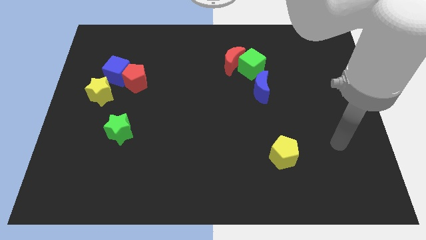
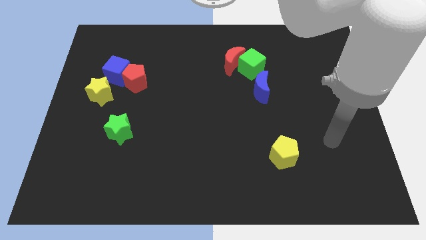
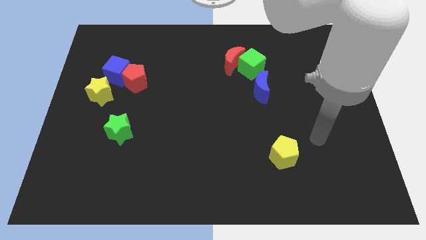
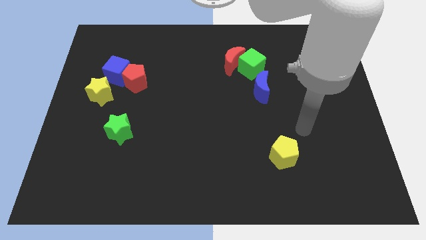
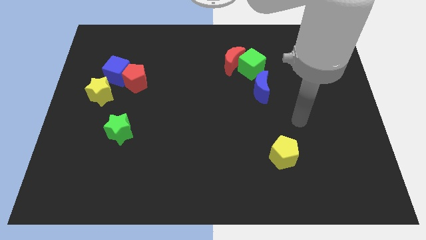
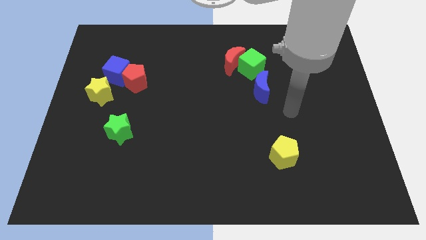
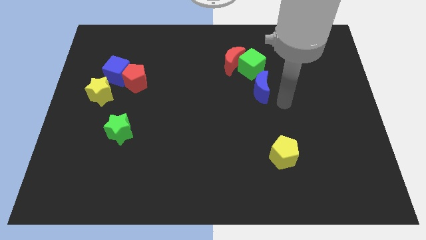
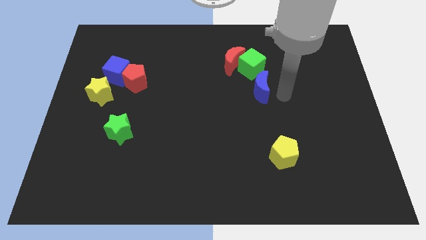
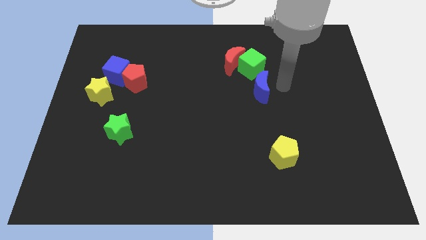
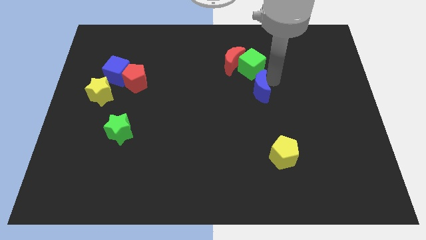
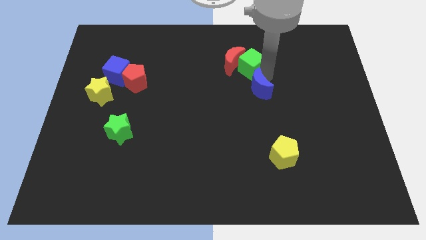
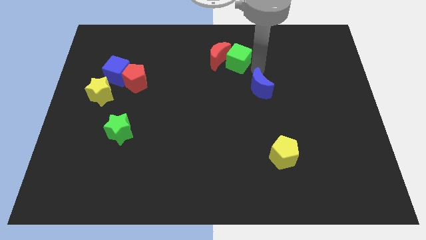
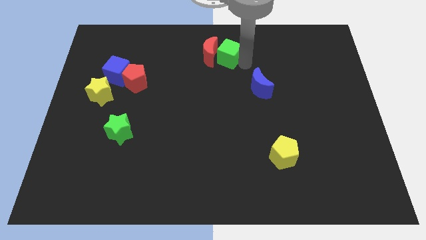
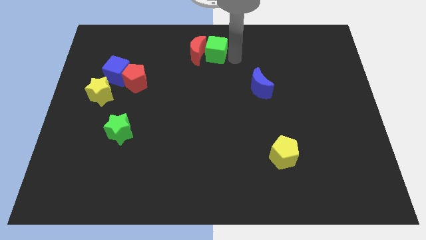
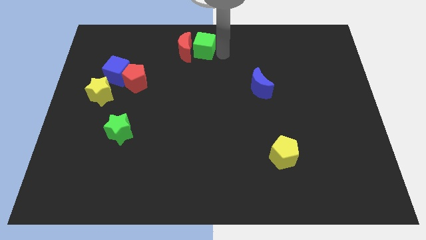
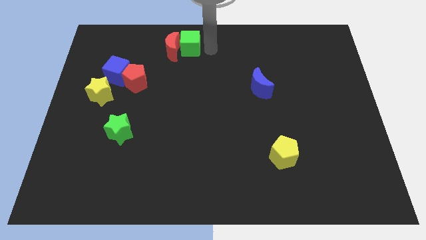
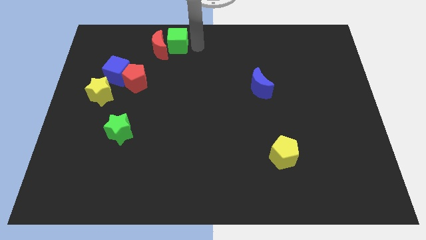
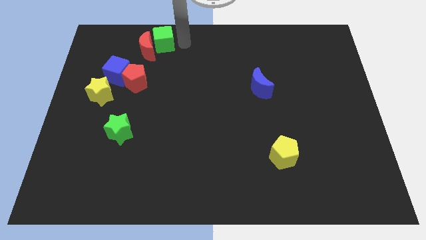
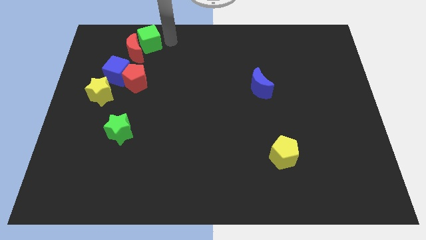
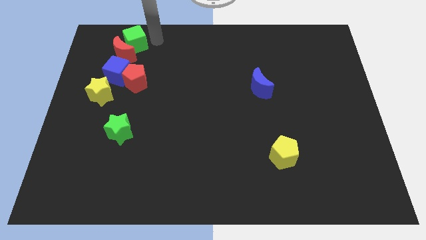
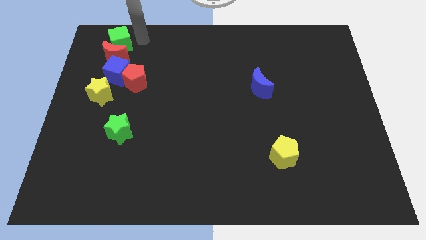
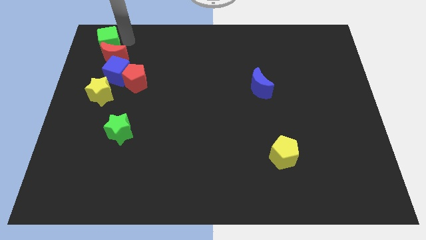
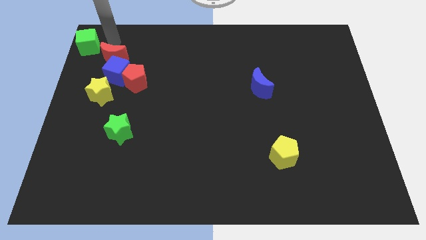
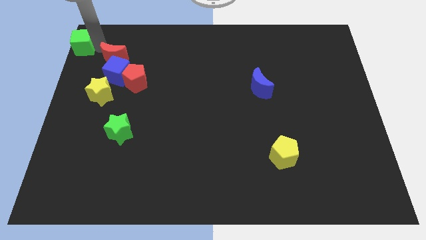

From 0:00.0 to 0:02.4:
move the red moon away from the green cube

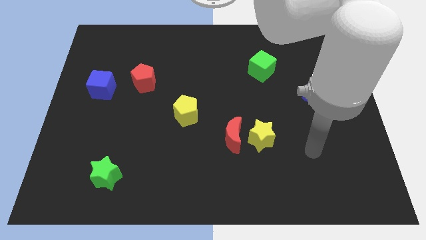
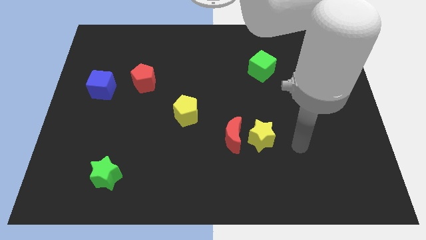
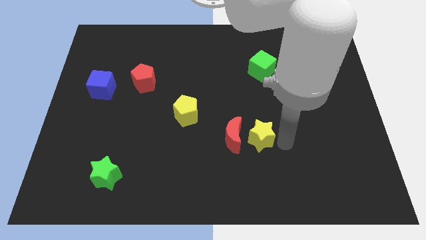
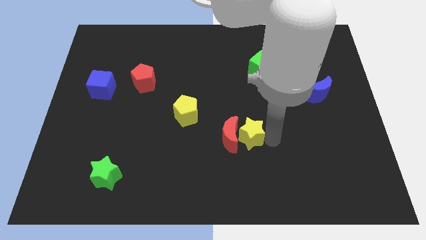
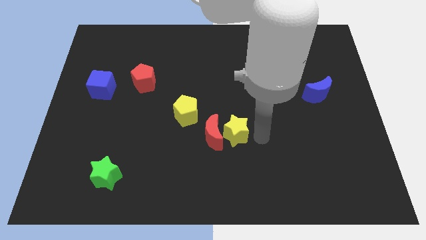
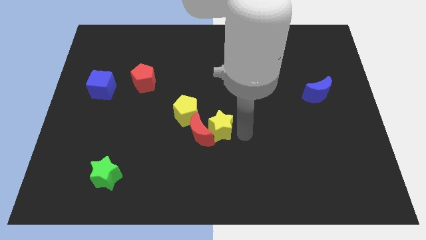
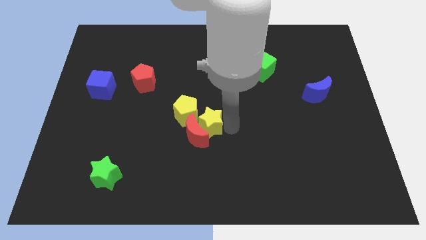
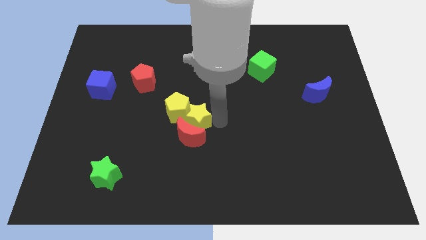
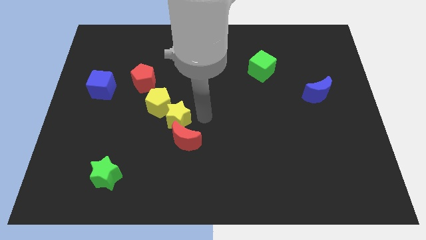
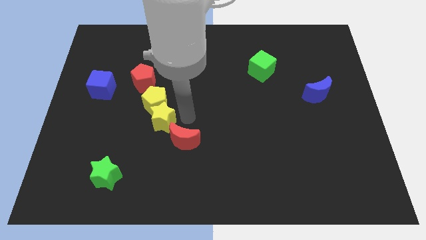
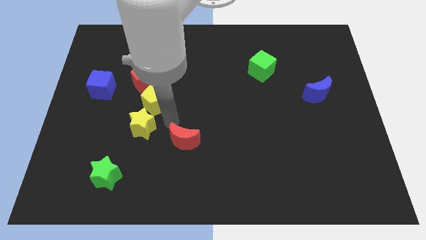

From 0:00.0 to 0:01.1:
pull the red moon apart from the yellow star

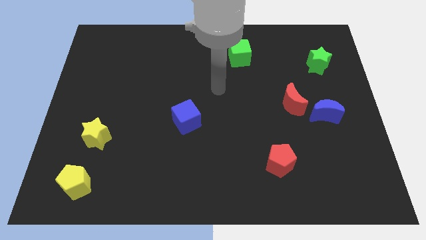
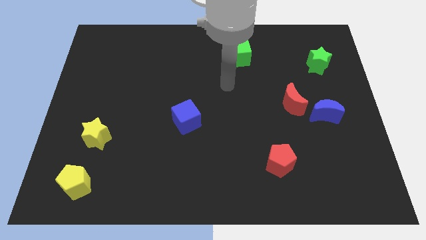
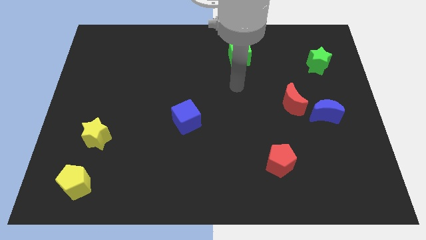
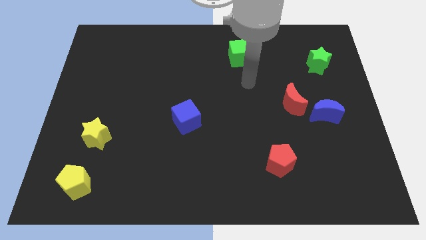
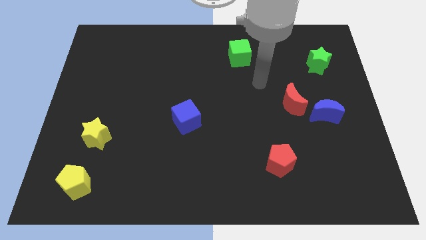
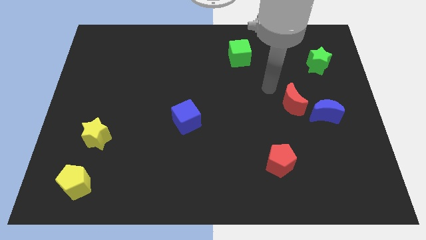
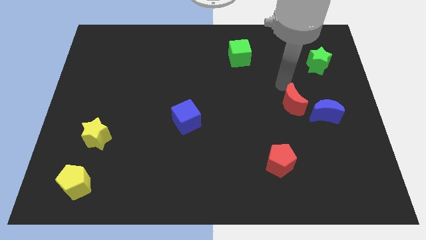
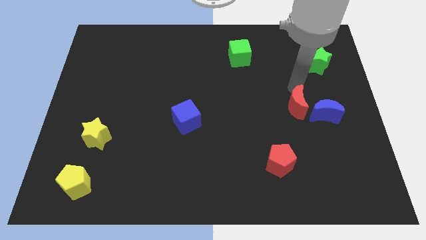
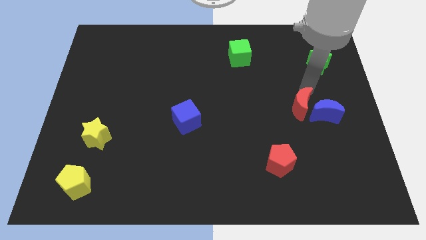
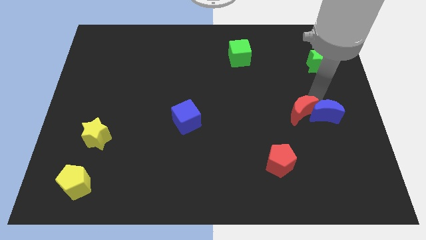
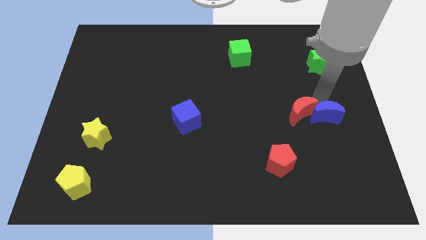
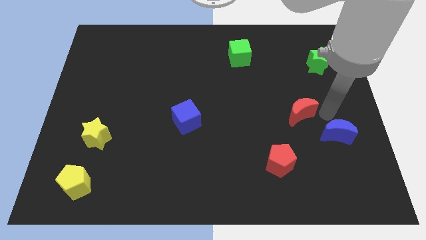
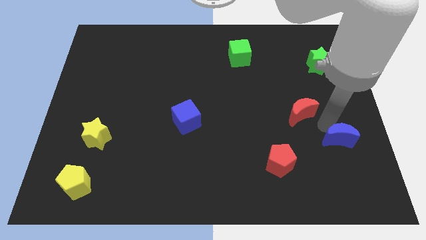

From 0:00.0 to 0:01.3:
move the red moon away from the blue moon

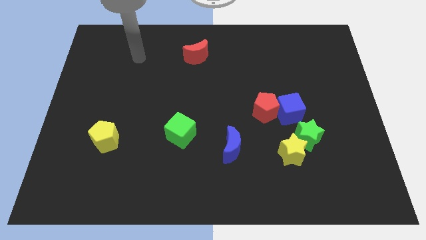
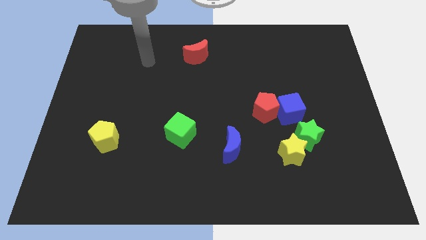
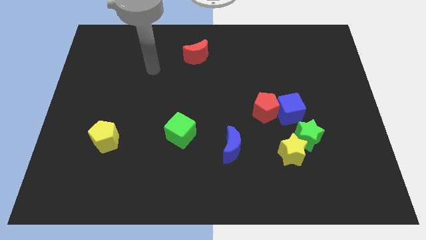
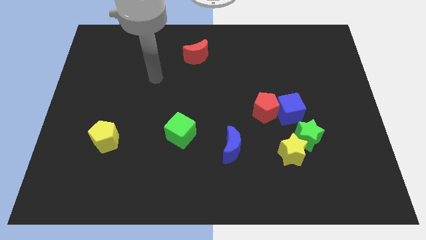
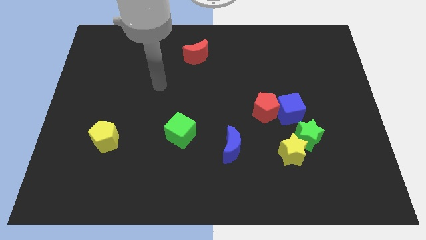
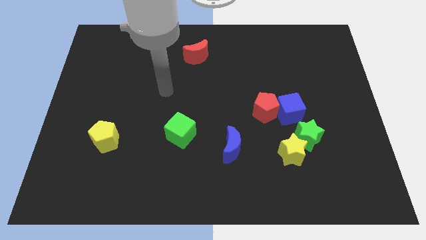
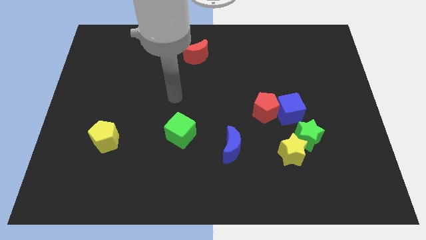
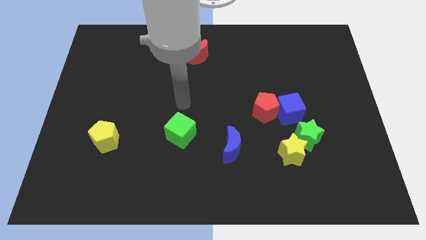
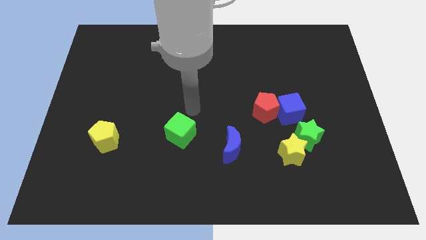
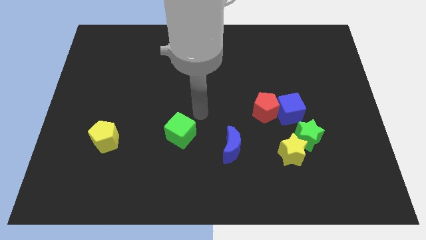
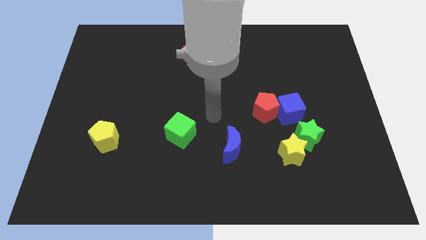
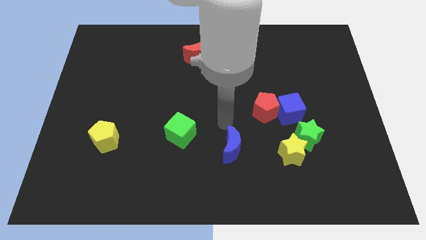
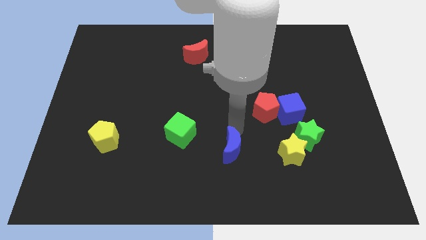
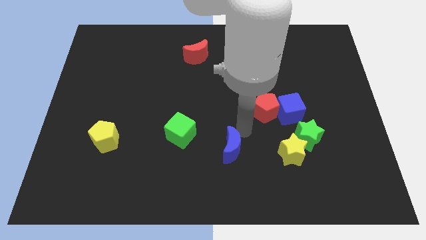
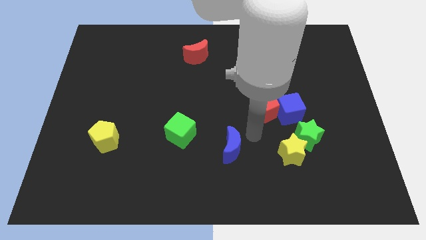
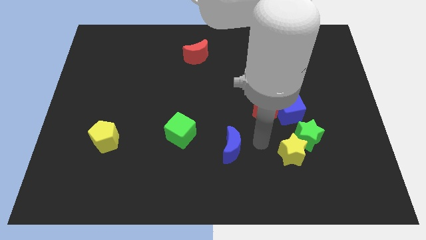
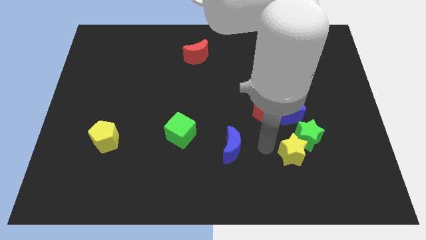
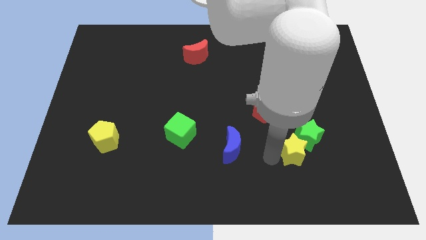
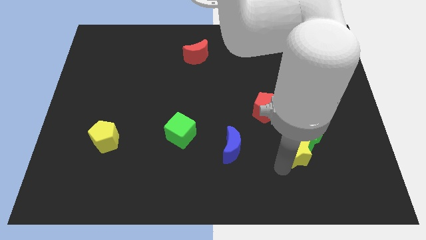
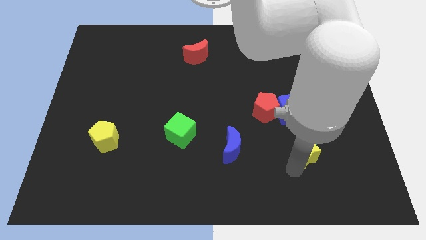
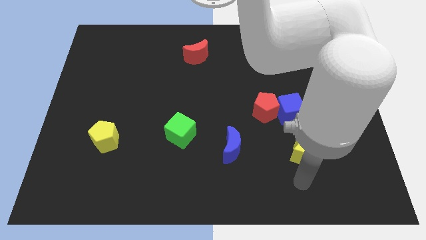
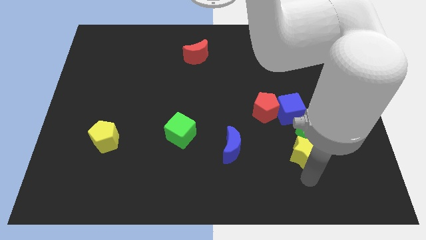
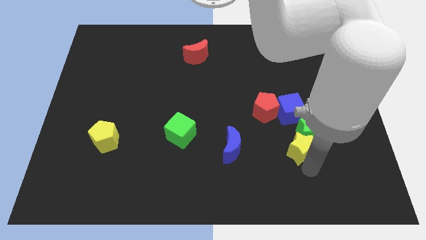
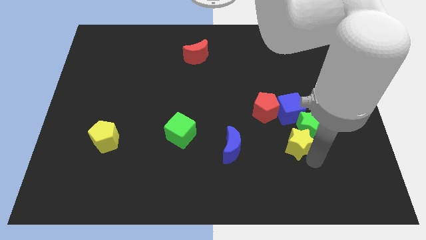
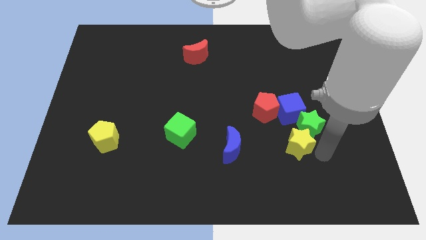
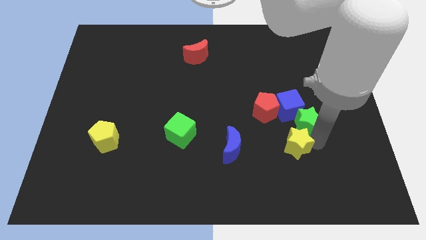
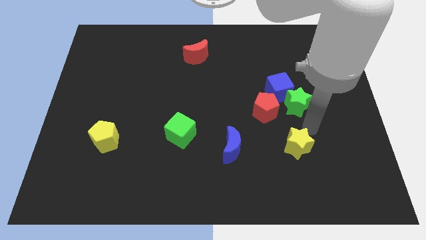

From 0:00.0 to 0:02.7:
move the yellow star away from the green star

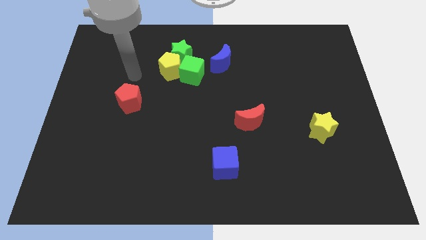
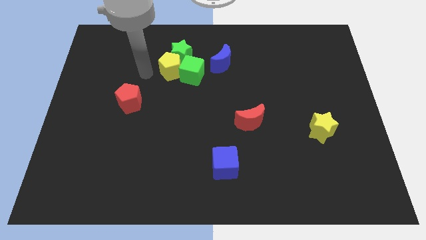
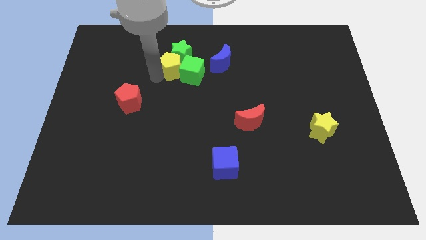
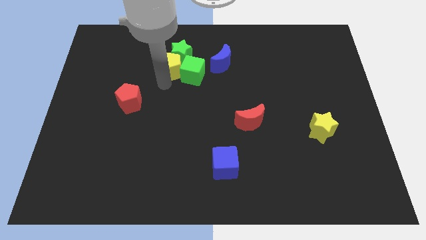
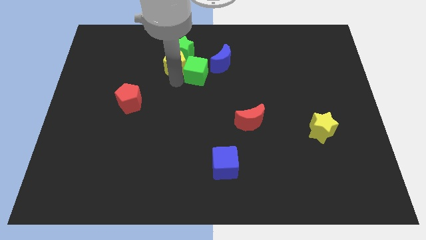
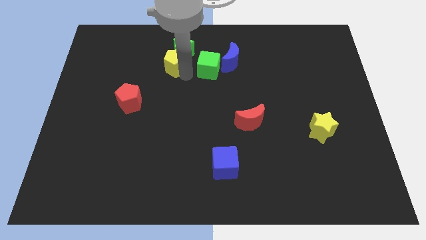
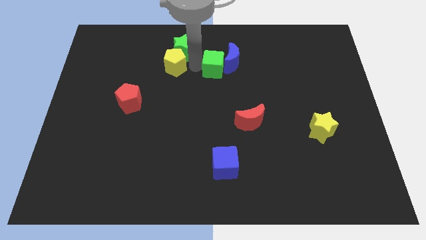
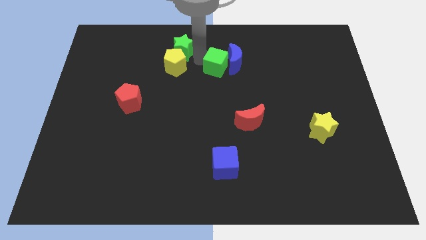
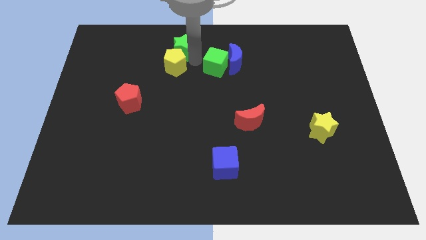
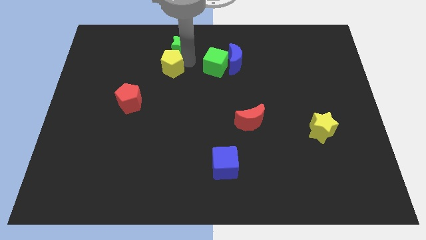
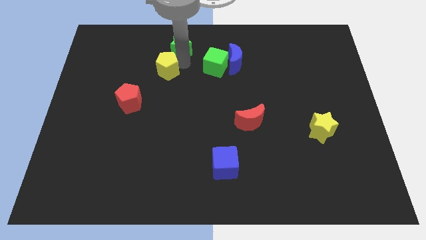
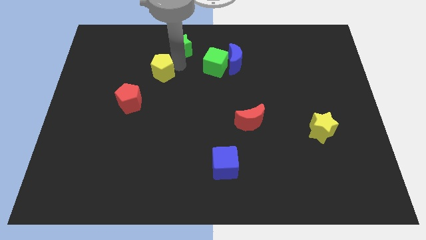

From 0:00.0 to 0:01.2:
separate the yellow pentagon from the green star and green cube

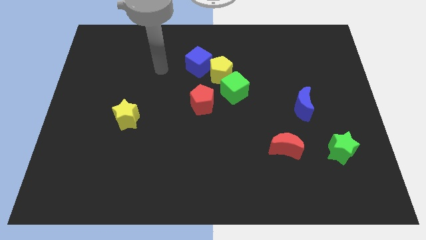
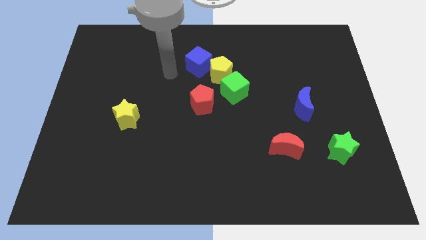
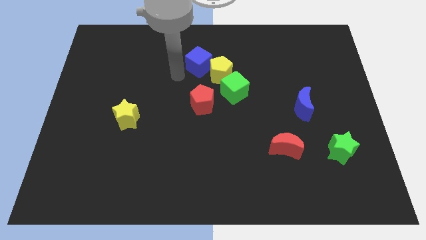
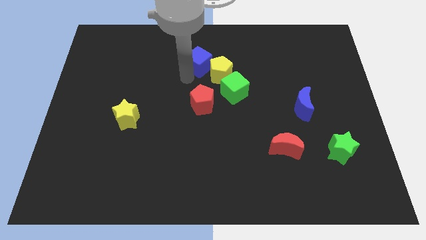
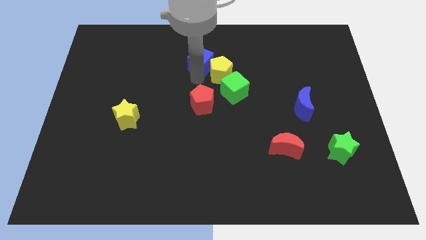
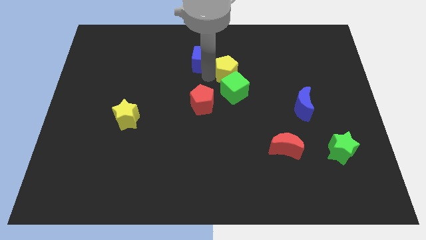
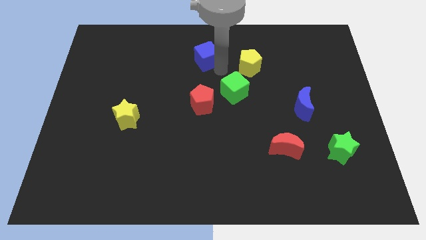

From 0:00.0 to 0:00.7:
separate the blue cube from the yellow pentagon
